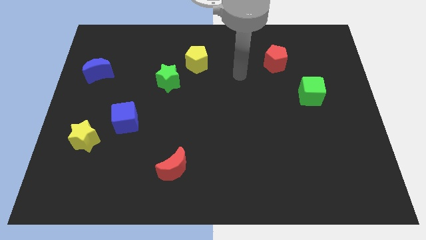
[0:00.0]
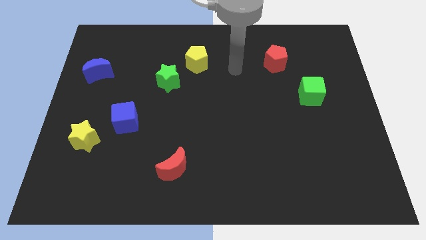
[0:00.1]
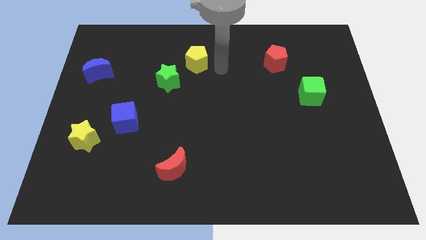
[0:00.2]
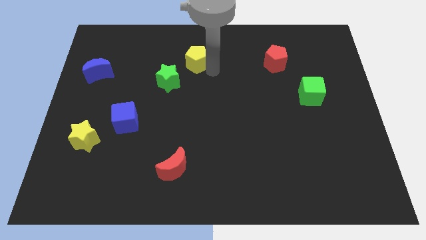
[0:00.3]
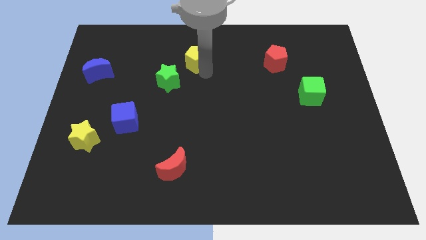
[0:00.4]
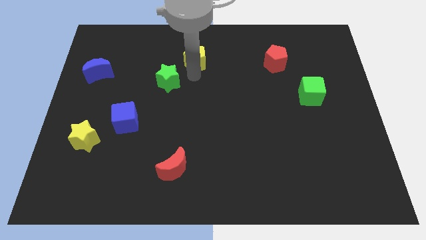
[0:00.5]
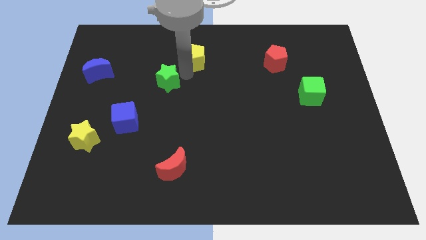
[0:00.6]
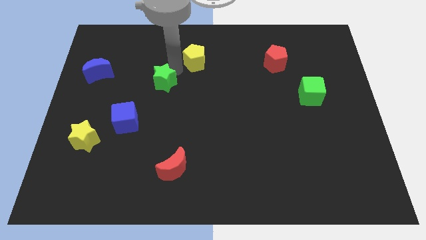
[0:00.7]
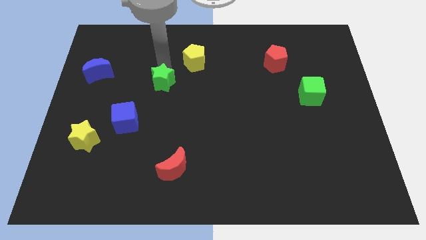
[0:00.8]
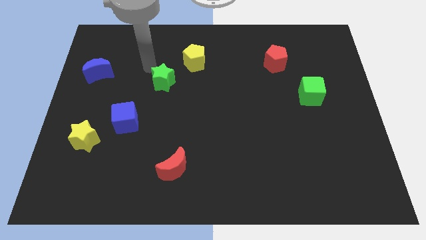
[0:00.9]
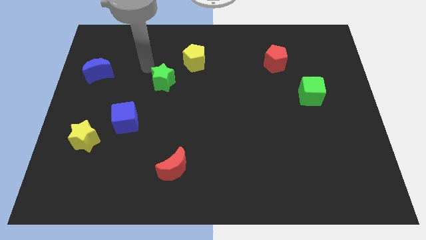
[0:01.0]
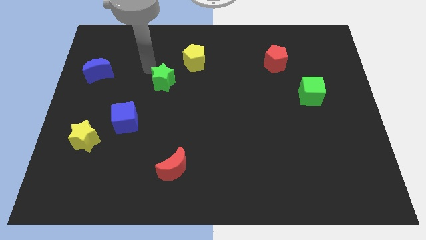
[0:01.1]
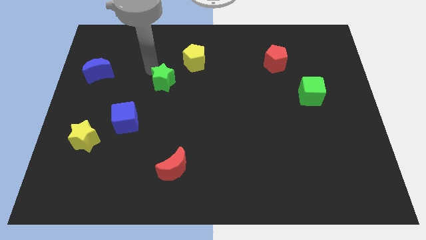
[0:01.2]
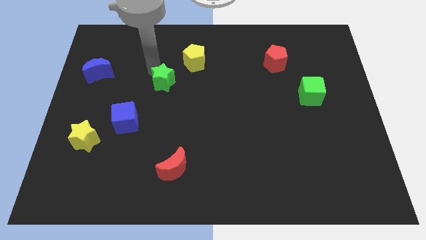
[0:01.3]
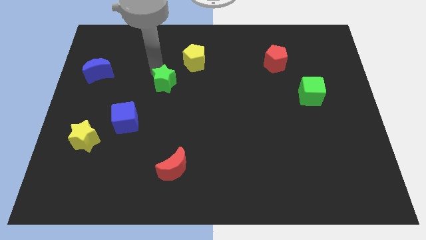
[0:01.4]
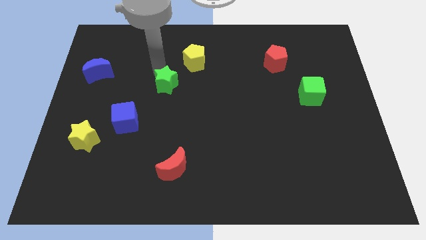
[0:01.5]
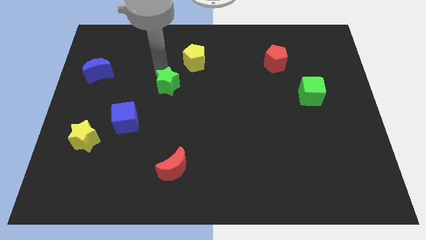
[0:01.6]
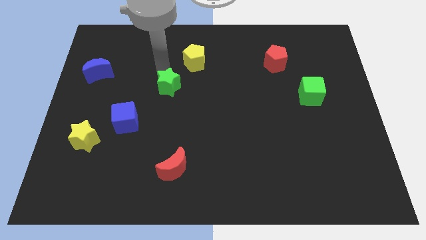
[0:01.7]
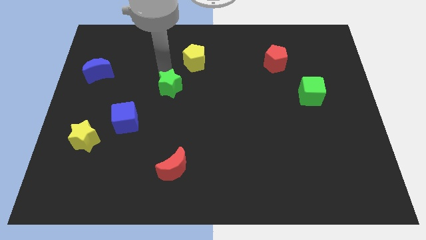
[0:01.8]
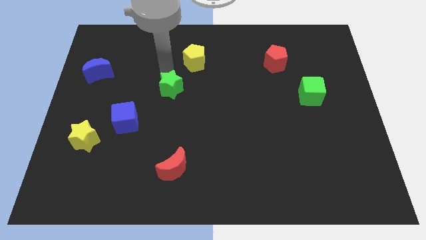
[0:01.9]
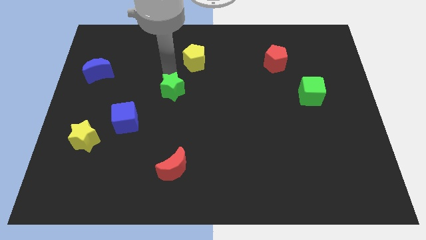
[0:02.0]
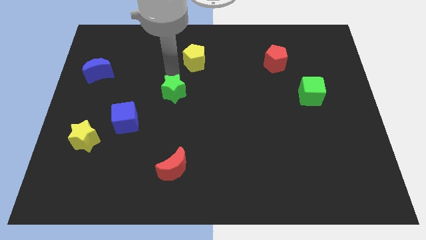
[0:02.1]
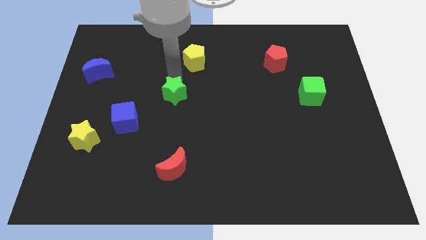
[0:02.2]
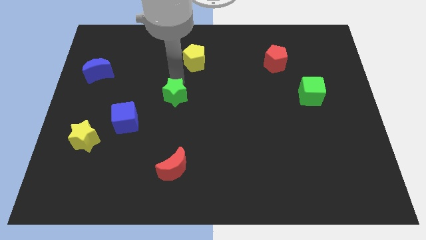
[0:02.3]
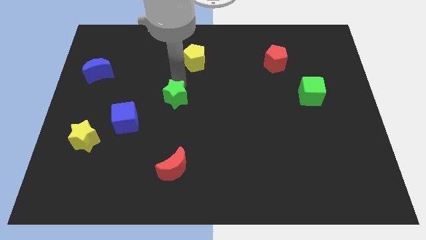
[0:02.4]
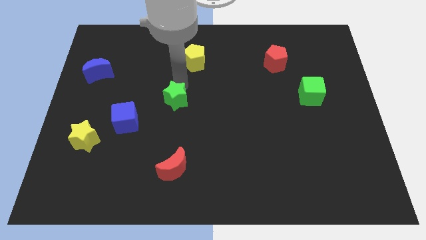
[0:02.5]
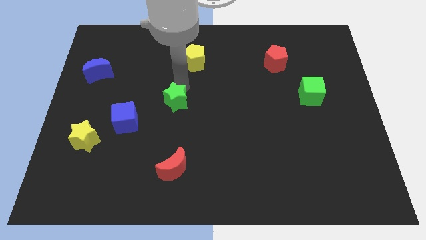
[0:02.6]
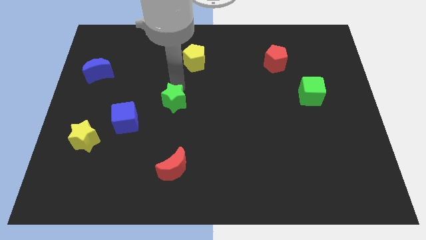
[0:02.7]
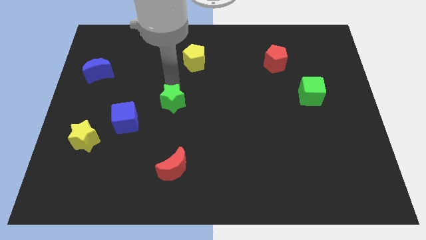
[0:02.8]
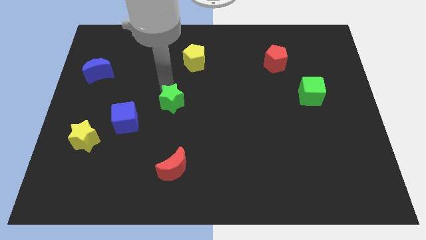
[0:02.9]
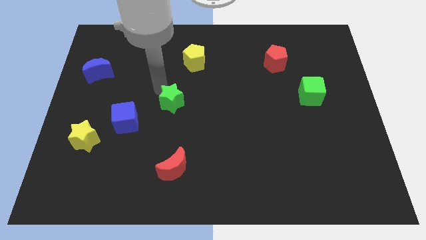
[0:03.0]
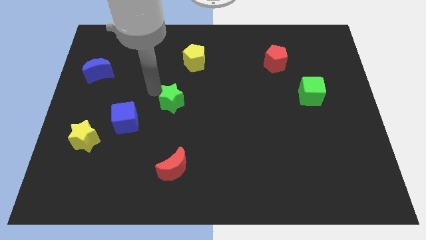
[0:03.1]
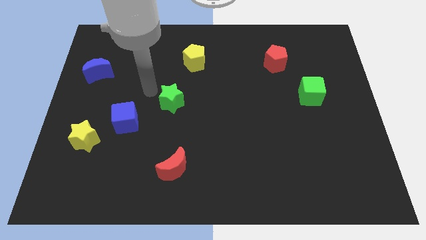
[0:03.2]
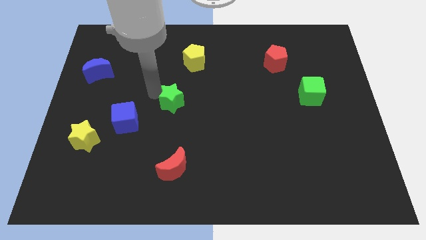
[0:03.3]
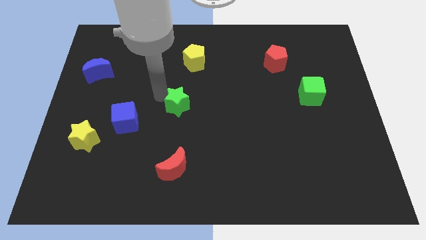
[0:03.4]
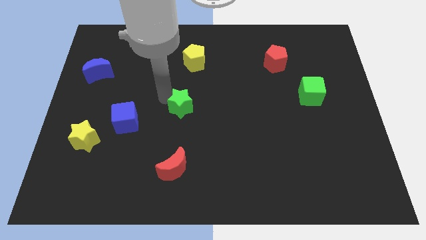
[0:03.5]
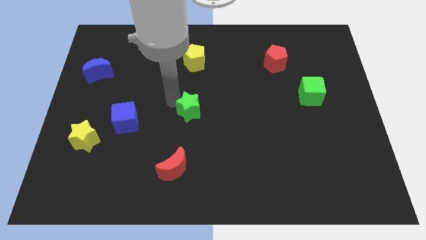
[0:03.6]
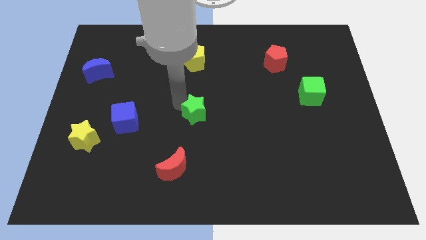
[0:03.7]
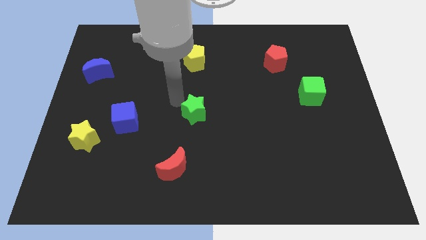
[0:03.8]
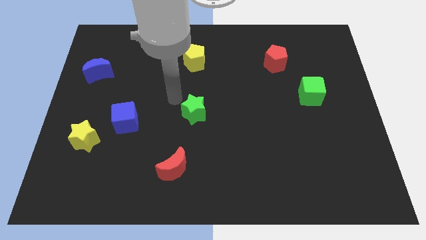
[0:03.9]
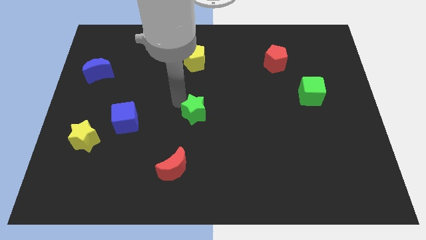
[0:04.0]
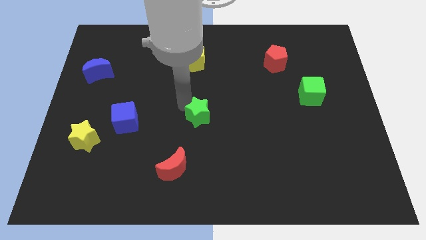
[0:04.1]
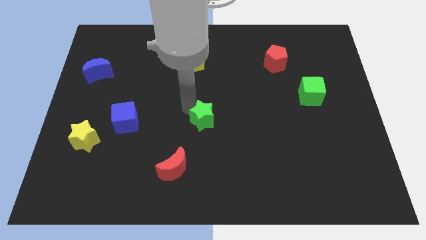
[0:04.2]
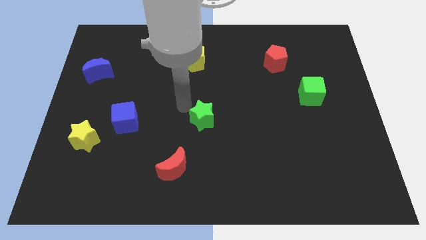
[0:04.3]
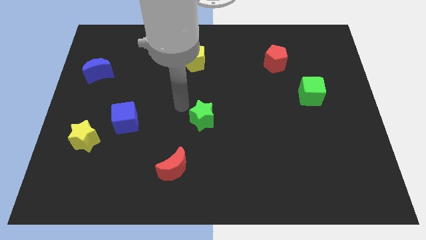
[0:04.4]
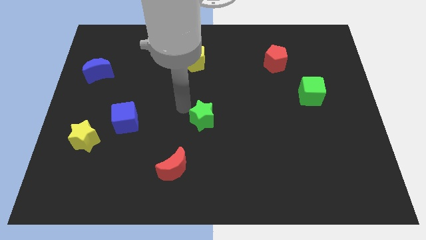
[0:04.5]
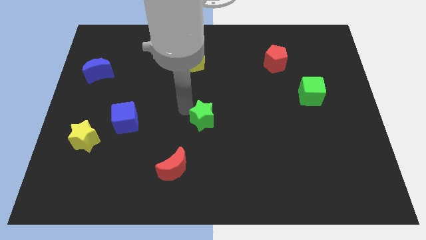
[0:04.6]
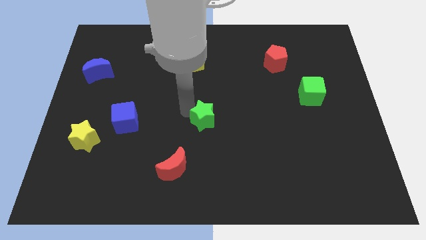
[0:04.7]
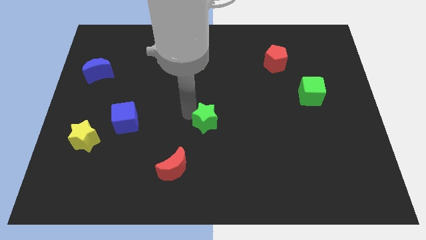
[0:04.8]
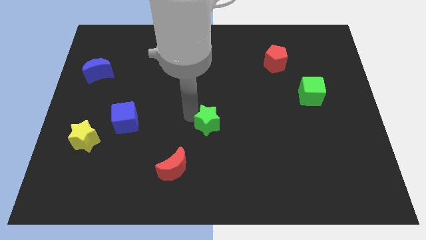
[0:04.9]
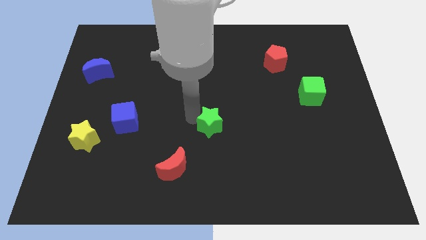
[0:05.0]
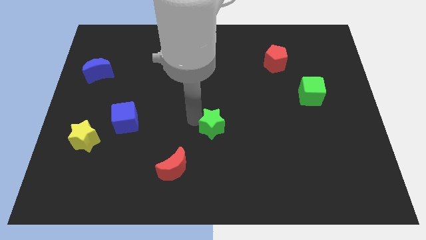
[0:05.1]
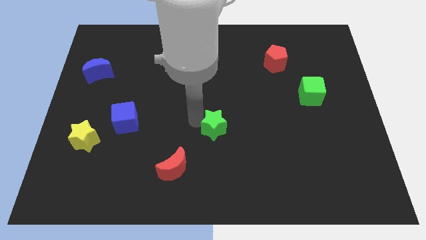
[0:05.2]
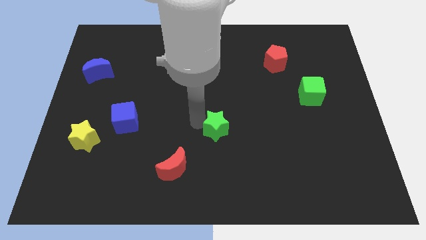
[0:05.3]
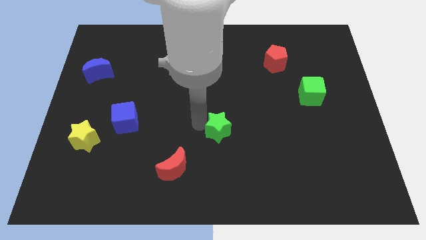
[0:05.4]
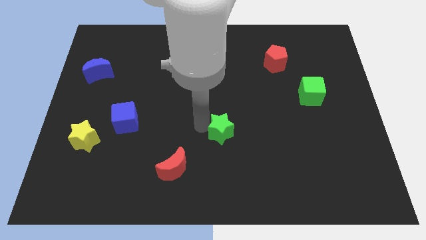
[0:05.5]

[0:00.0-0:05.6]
move the green star down and right diagonally

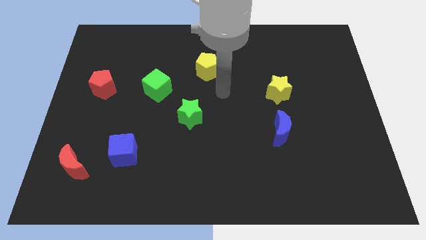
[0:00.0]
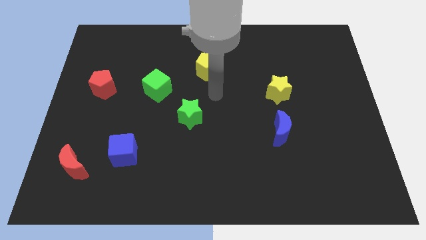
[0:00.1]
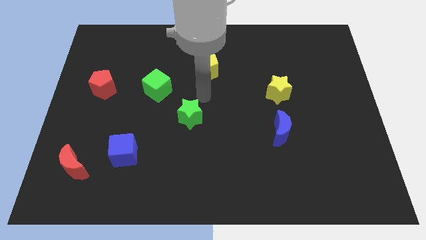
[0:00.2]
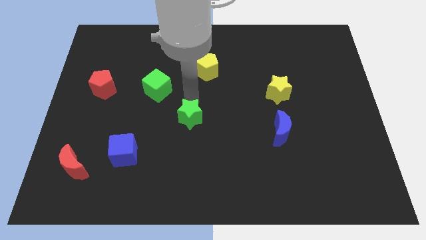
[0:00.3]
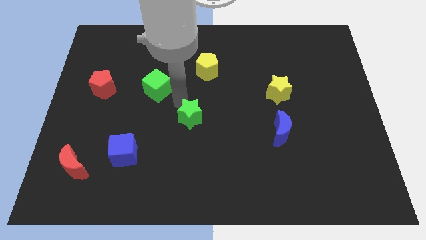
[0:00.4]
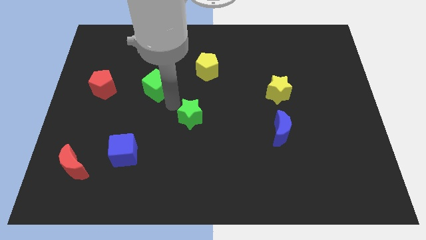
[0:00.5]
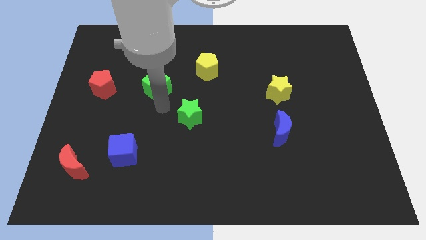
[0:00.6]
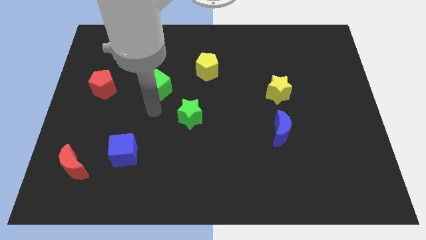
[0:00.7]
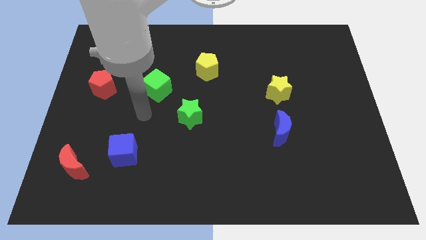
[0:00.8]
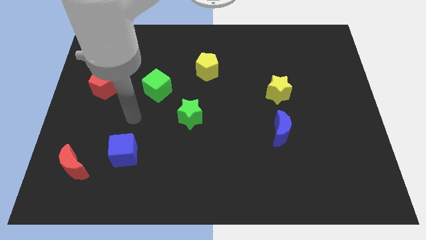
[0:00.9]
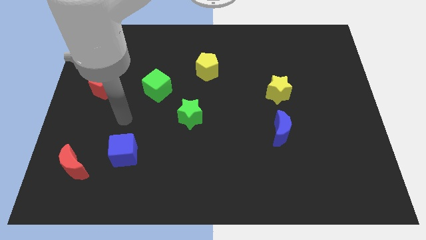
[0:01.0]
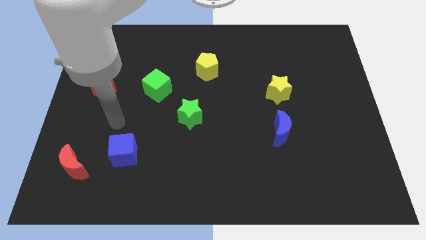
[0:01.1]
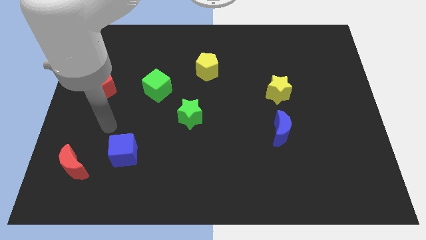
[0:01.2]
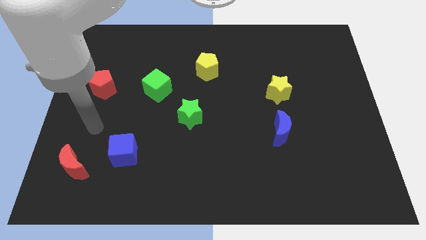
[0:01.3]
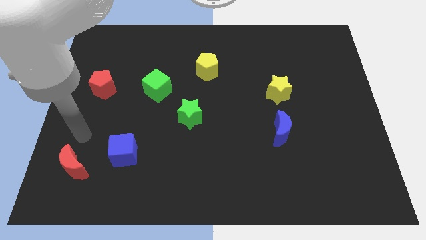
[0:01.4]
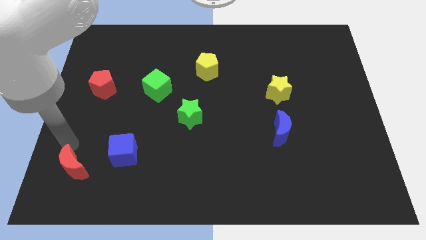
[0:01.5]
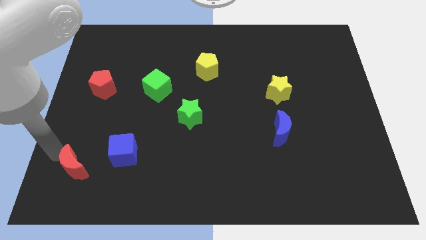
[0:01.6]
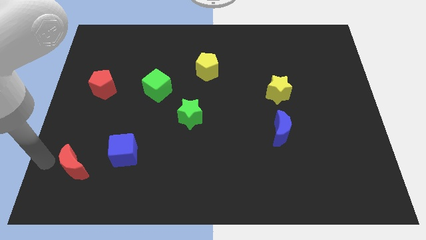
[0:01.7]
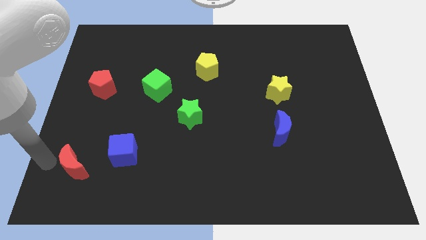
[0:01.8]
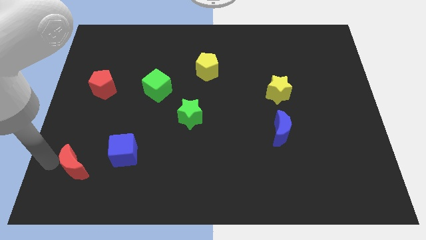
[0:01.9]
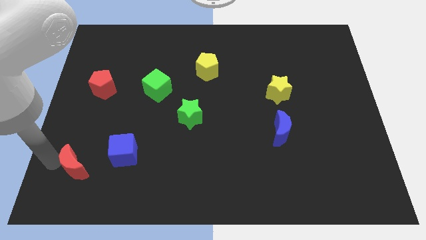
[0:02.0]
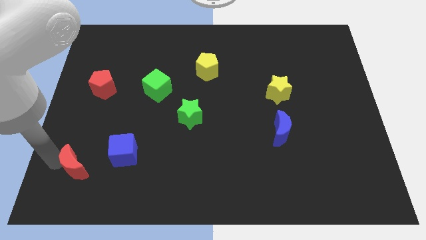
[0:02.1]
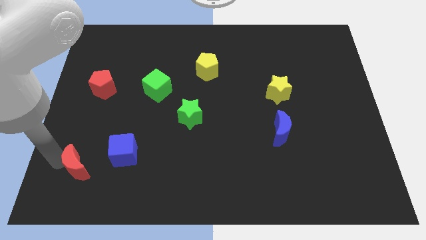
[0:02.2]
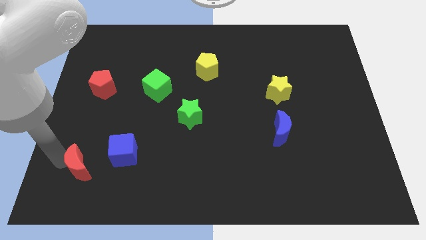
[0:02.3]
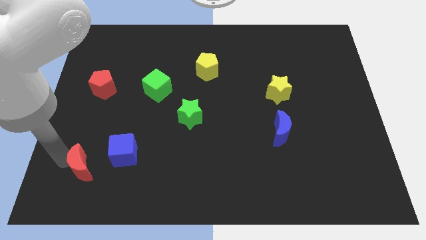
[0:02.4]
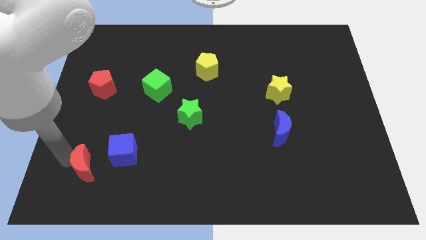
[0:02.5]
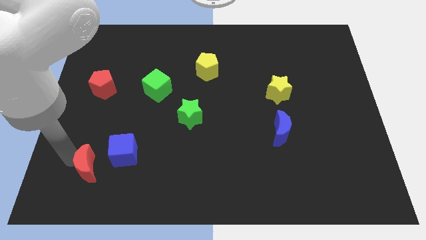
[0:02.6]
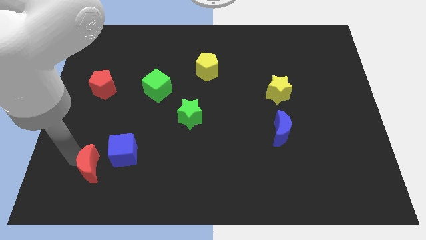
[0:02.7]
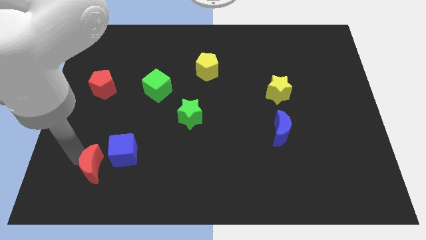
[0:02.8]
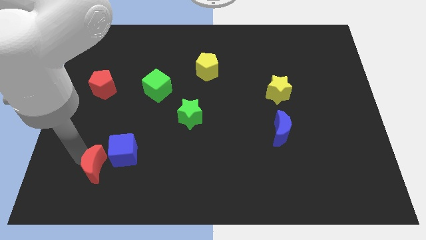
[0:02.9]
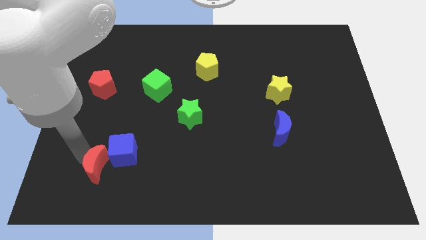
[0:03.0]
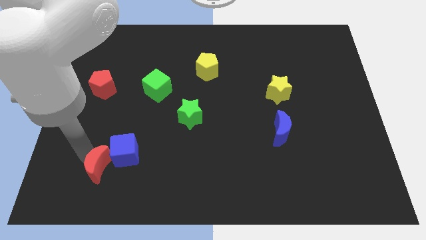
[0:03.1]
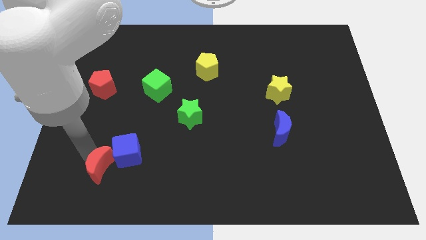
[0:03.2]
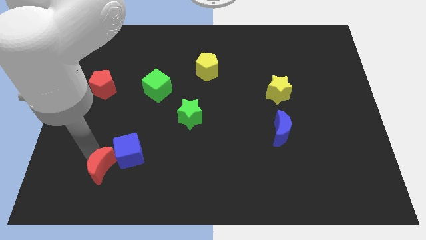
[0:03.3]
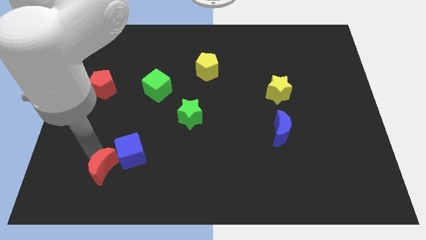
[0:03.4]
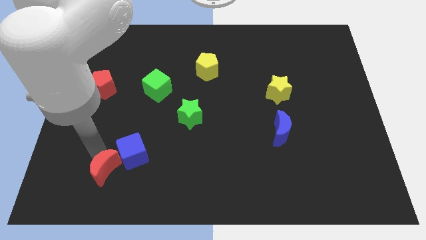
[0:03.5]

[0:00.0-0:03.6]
slightly slide the red moon right
